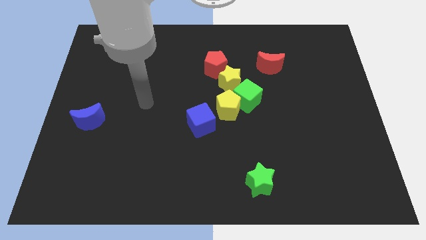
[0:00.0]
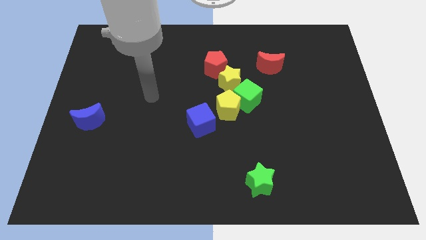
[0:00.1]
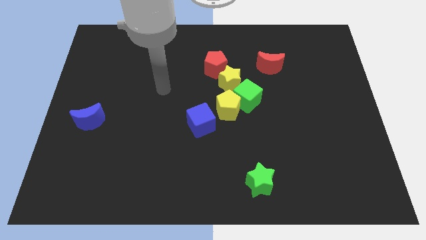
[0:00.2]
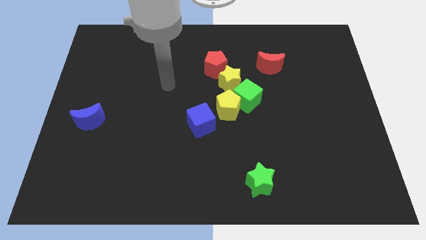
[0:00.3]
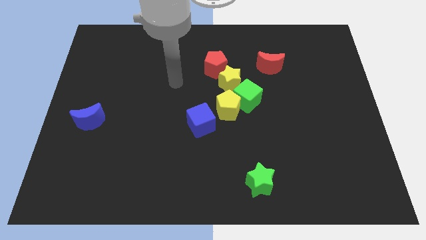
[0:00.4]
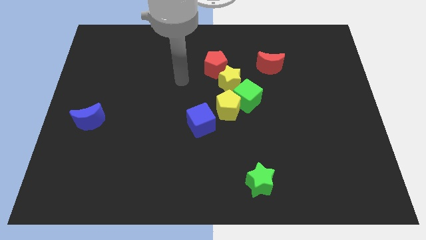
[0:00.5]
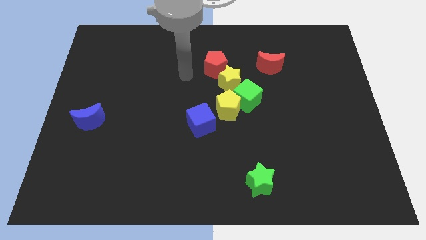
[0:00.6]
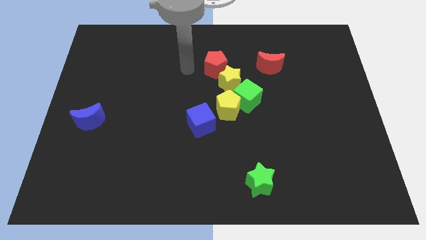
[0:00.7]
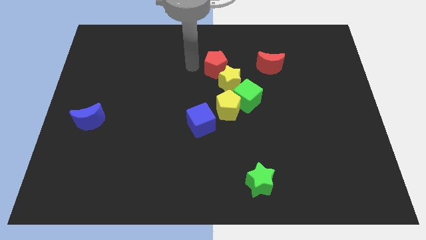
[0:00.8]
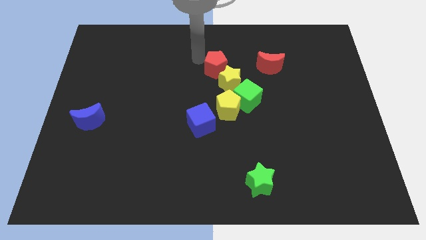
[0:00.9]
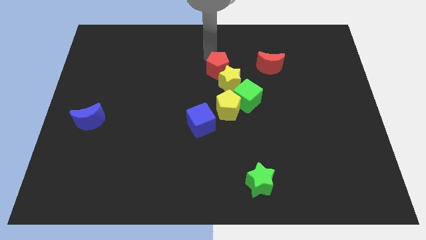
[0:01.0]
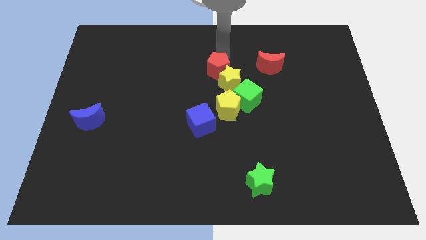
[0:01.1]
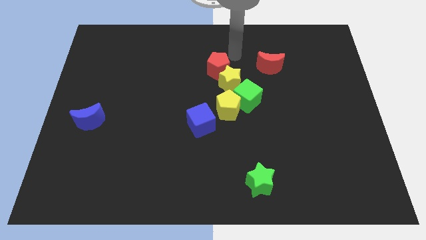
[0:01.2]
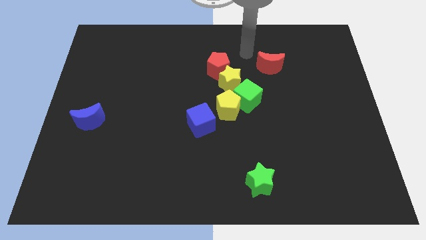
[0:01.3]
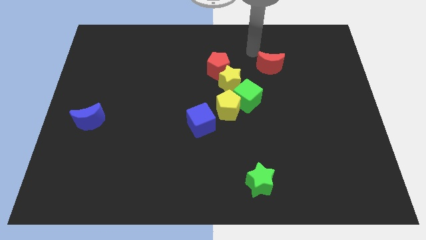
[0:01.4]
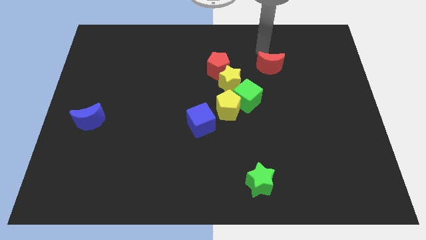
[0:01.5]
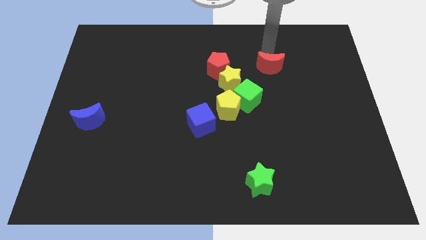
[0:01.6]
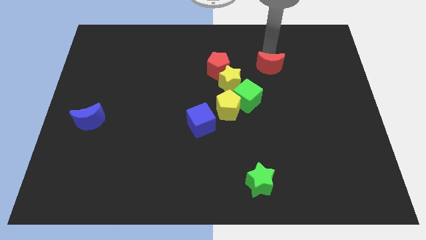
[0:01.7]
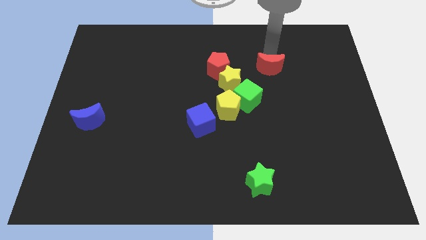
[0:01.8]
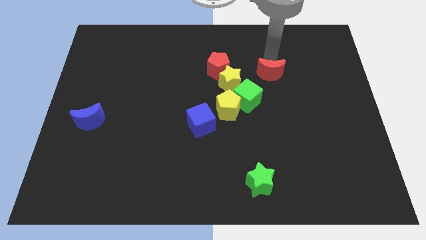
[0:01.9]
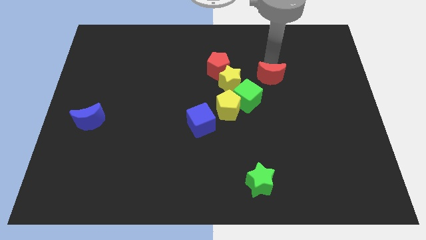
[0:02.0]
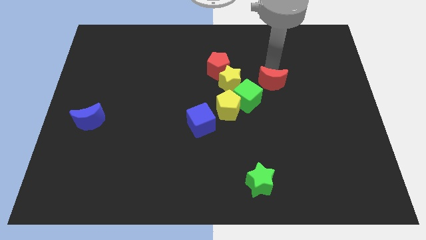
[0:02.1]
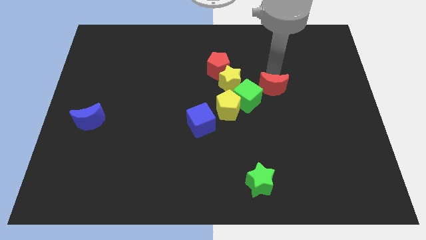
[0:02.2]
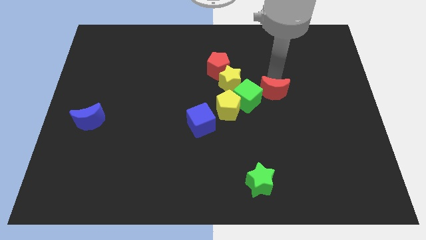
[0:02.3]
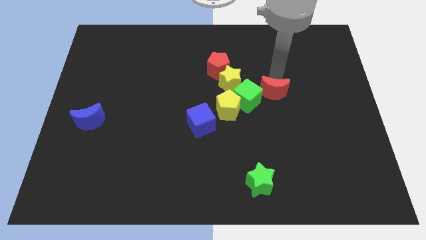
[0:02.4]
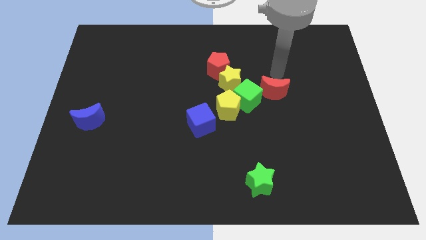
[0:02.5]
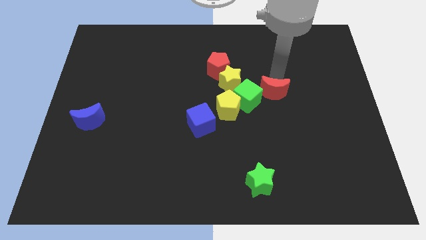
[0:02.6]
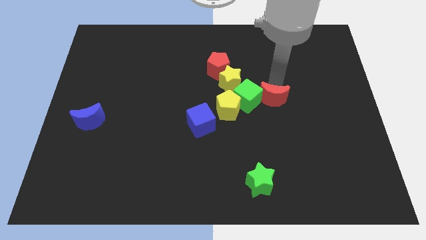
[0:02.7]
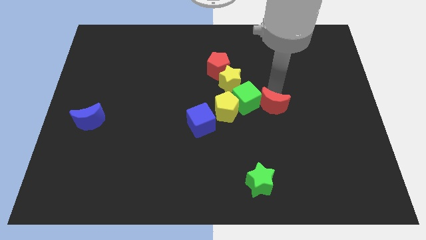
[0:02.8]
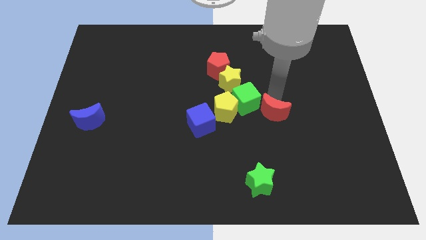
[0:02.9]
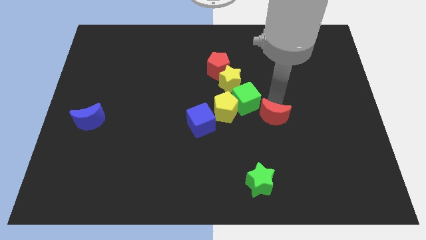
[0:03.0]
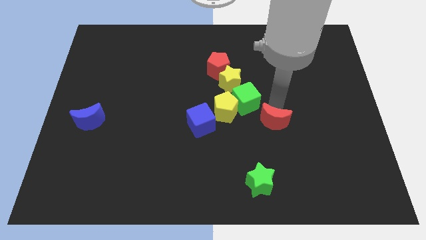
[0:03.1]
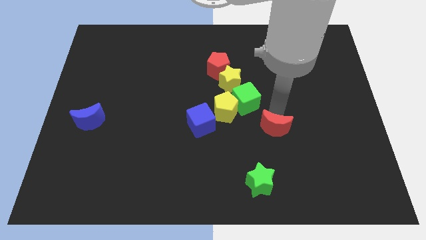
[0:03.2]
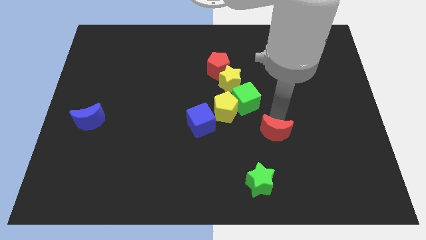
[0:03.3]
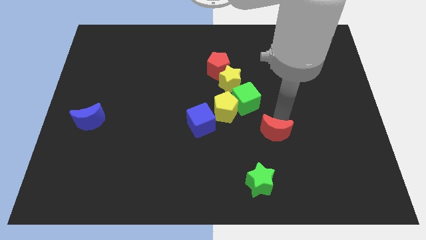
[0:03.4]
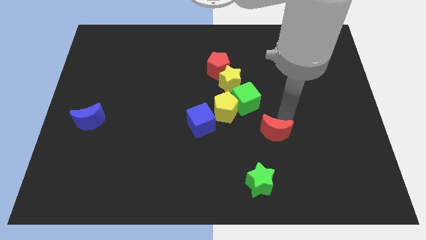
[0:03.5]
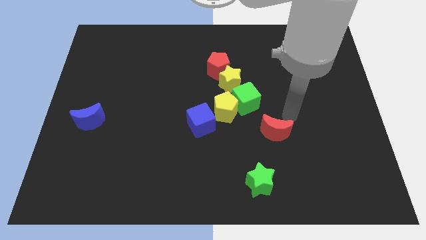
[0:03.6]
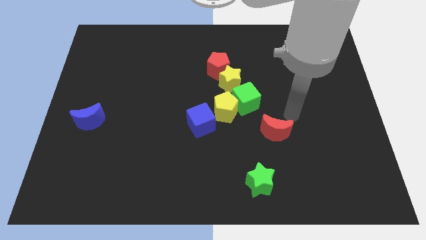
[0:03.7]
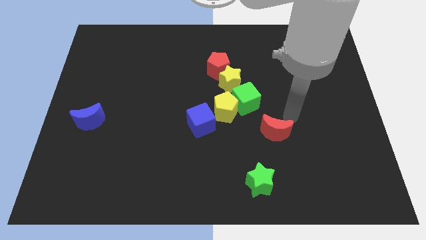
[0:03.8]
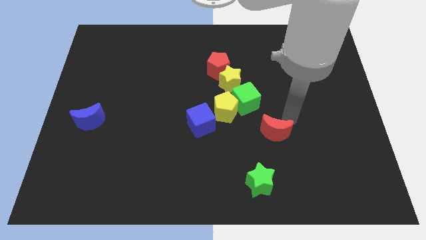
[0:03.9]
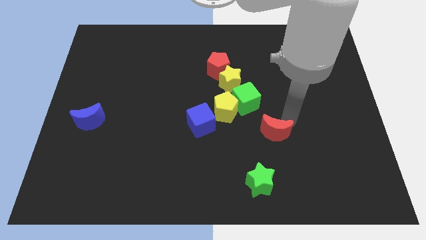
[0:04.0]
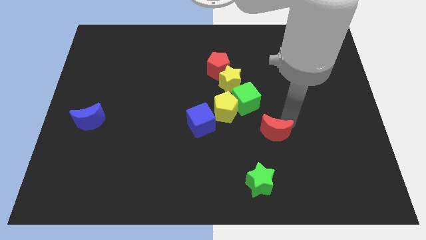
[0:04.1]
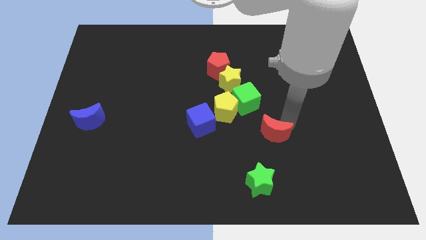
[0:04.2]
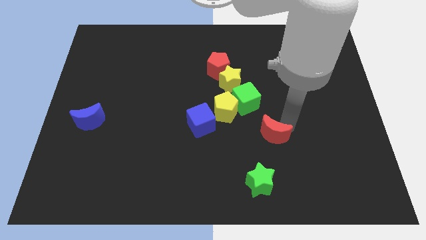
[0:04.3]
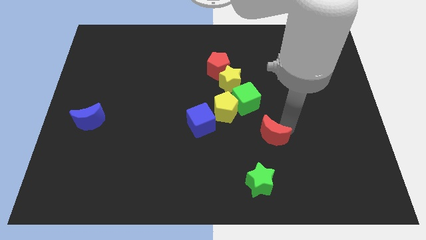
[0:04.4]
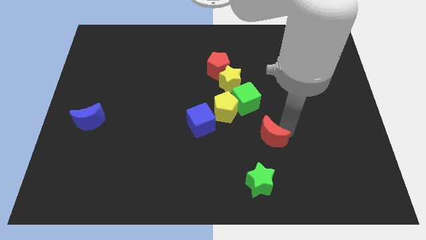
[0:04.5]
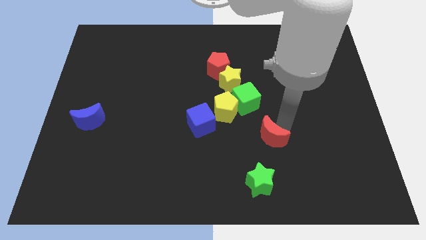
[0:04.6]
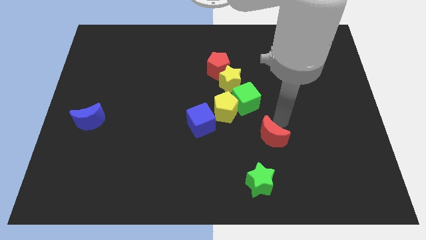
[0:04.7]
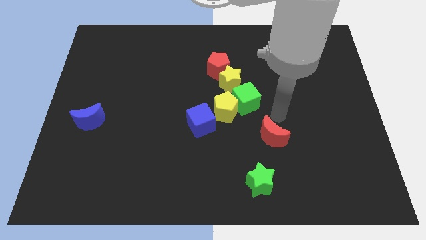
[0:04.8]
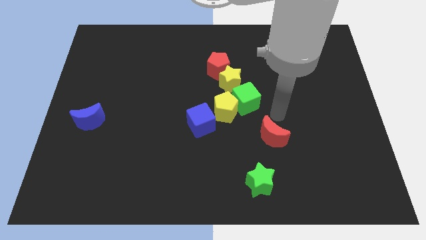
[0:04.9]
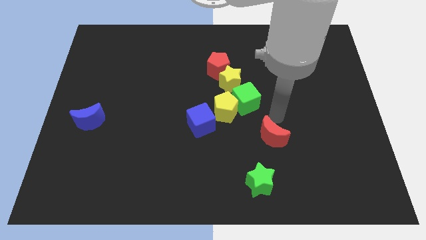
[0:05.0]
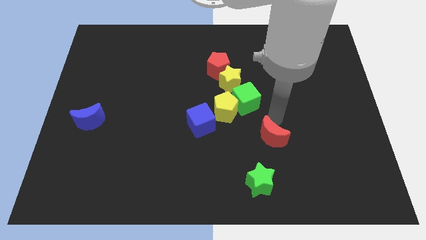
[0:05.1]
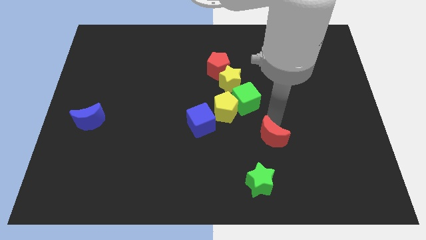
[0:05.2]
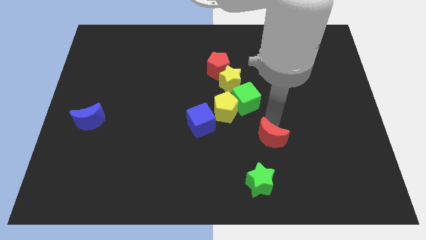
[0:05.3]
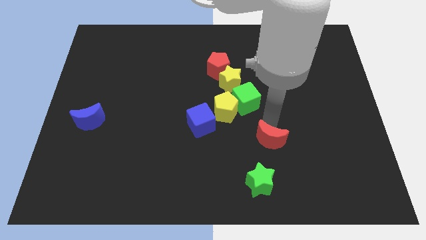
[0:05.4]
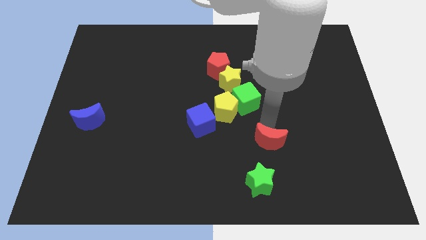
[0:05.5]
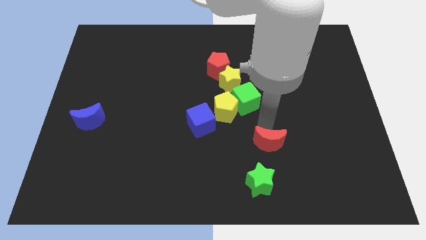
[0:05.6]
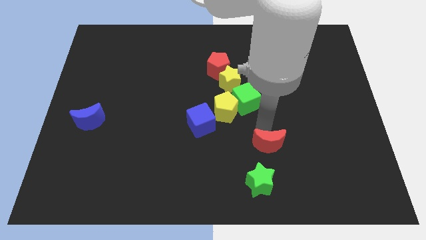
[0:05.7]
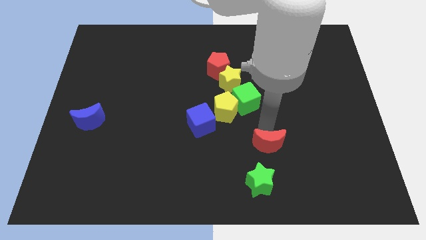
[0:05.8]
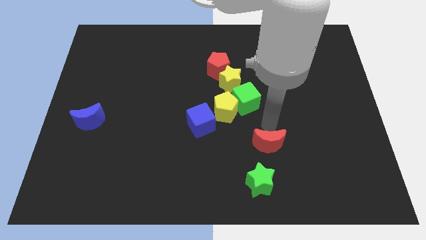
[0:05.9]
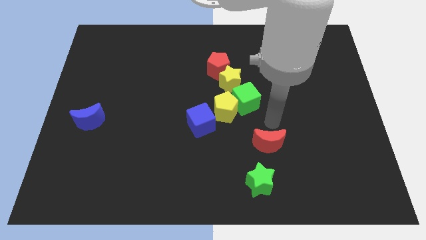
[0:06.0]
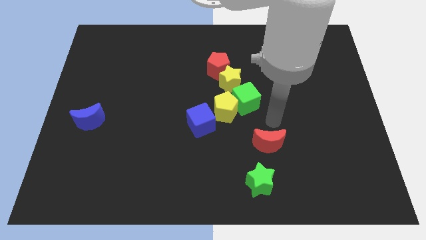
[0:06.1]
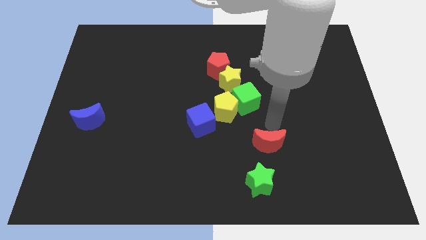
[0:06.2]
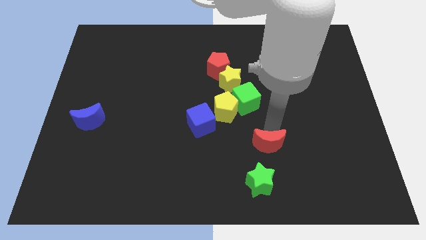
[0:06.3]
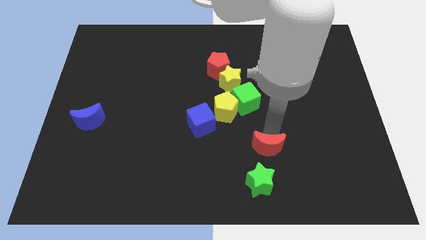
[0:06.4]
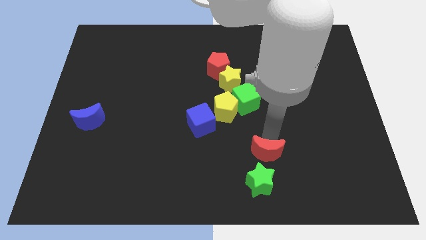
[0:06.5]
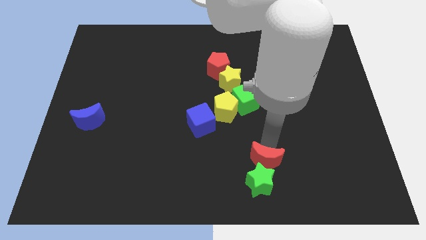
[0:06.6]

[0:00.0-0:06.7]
move the red moon to the green star
